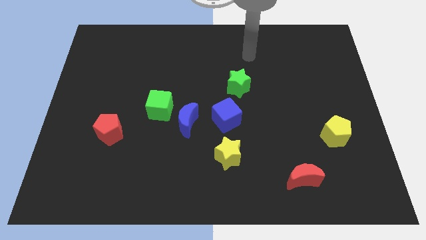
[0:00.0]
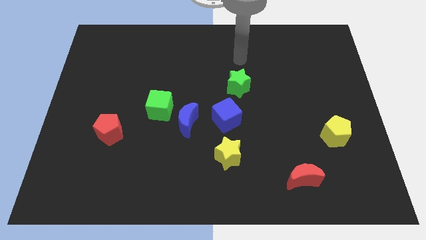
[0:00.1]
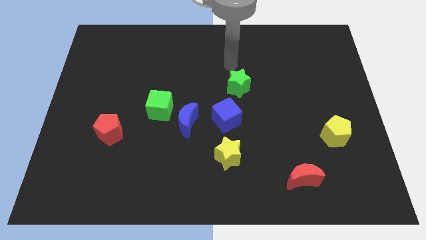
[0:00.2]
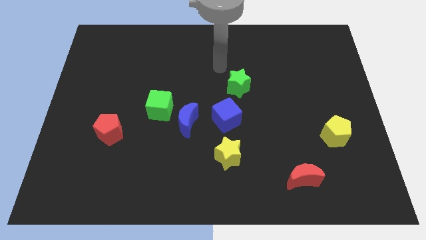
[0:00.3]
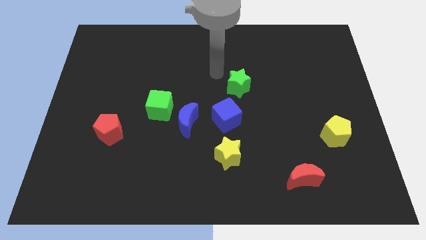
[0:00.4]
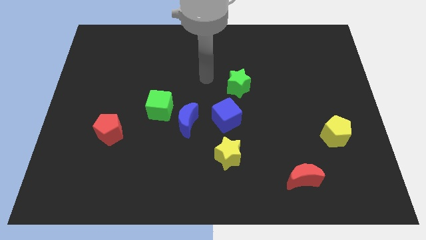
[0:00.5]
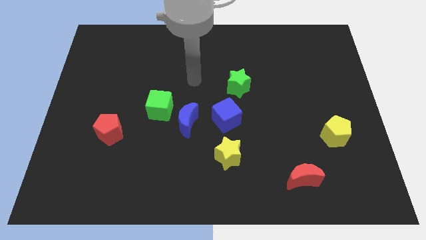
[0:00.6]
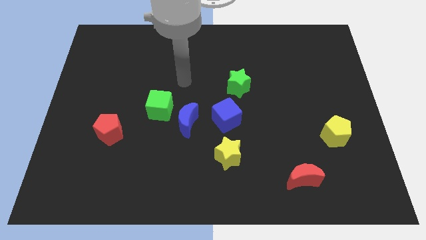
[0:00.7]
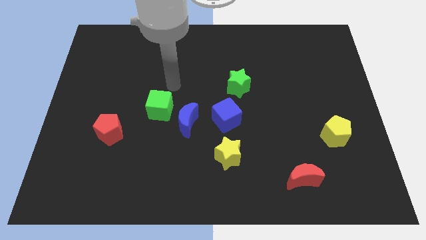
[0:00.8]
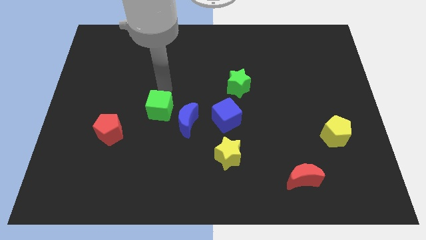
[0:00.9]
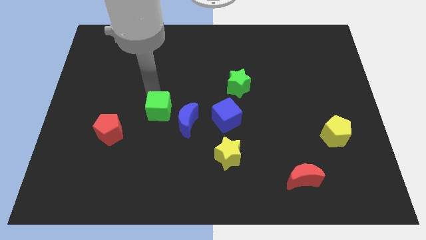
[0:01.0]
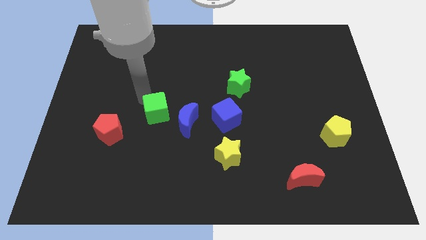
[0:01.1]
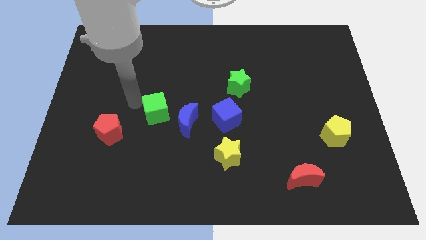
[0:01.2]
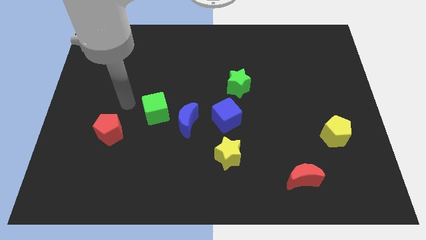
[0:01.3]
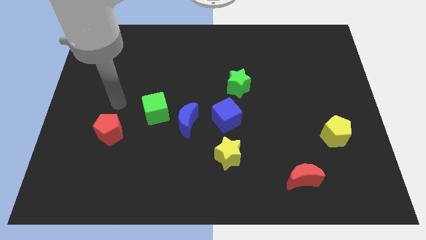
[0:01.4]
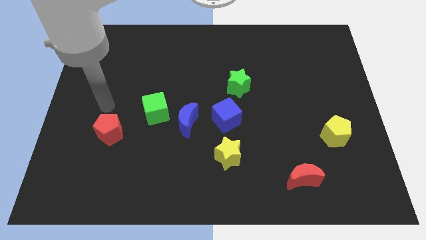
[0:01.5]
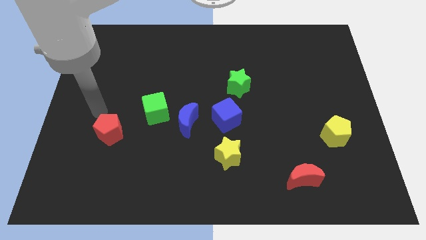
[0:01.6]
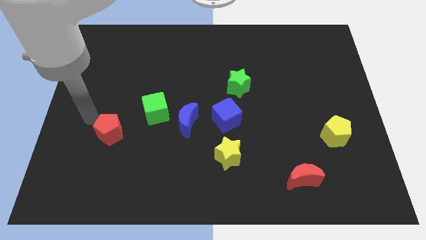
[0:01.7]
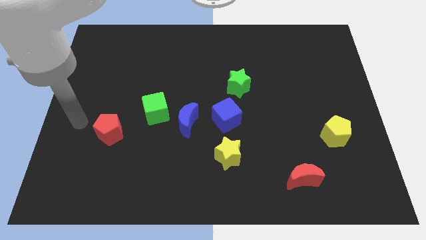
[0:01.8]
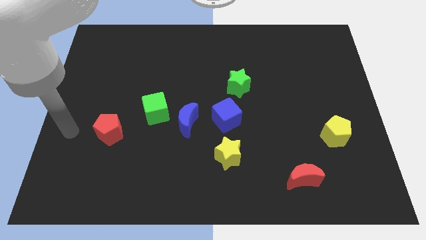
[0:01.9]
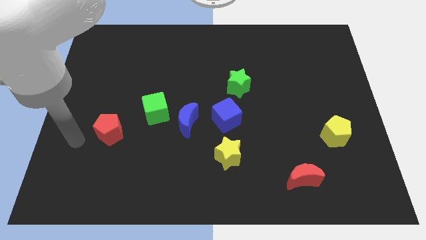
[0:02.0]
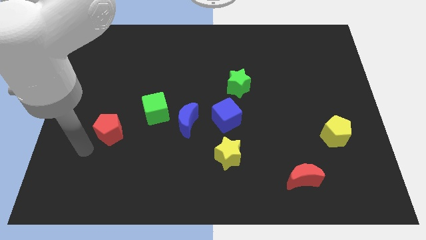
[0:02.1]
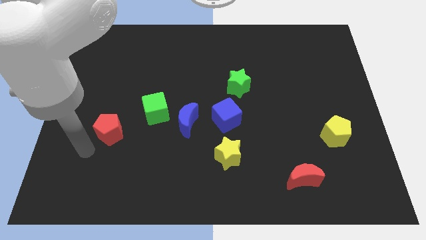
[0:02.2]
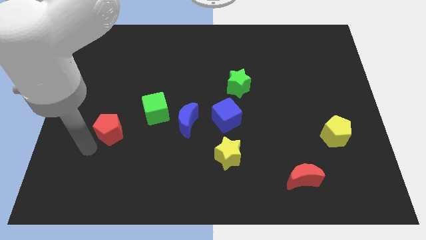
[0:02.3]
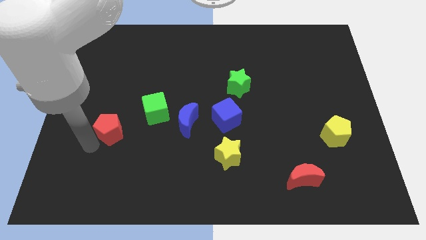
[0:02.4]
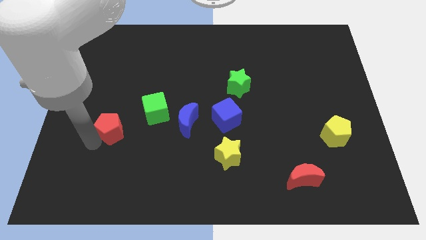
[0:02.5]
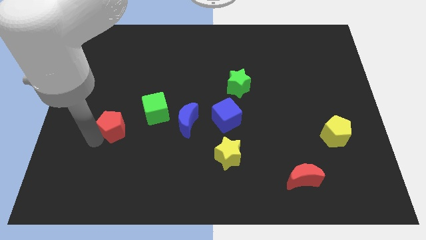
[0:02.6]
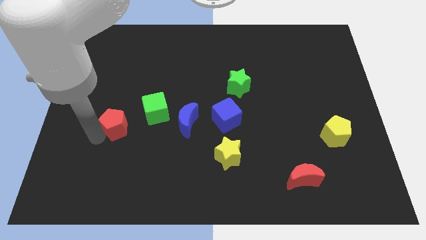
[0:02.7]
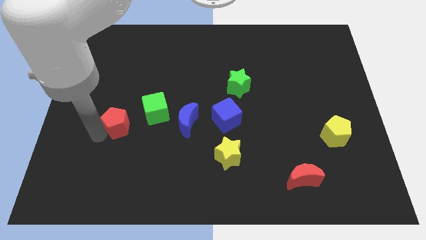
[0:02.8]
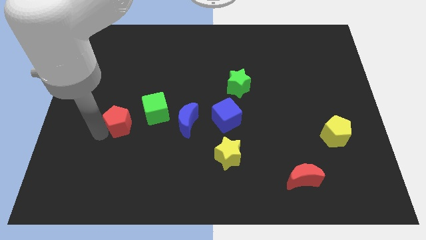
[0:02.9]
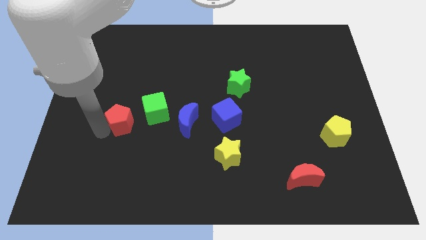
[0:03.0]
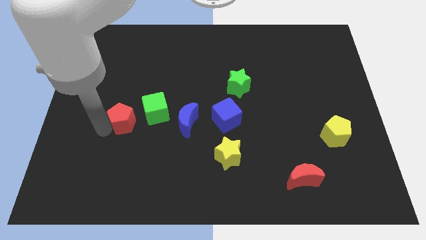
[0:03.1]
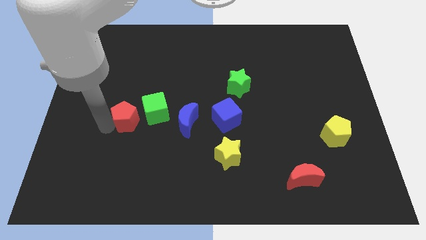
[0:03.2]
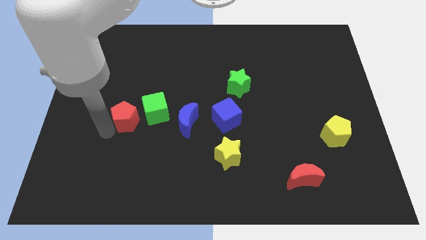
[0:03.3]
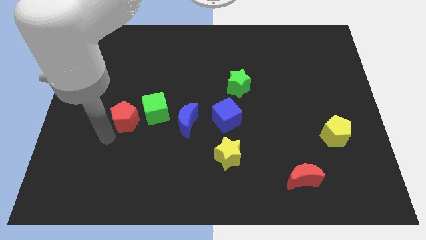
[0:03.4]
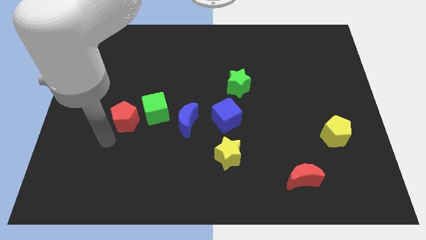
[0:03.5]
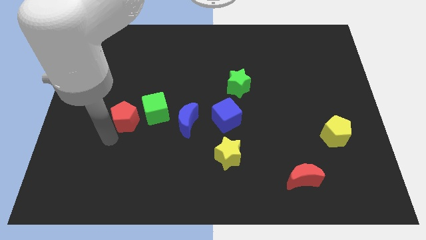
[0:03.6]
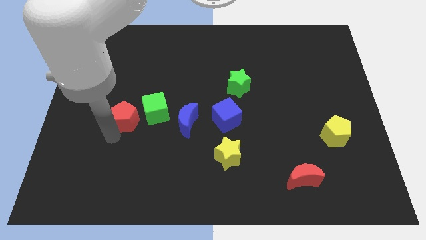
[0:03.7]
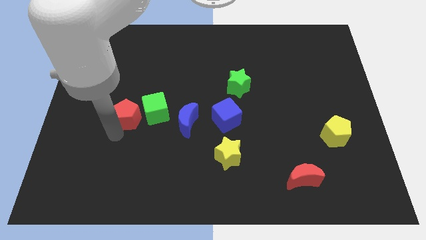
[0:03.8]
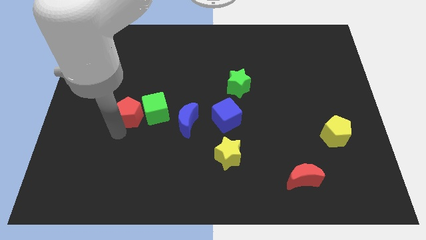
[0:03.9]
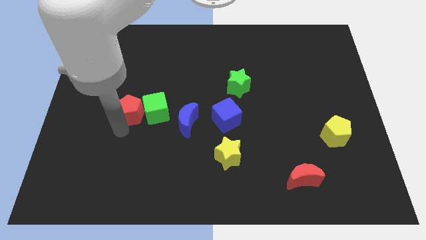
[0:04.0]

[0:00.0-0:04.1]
push the red pentagon up and to the right diagonally slightly

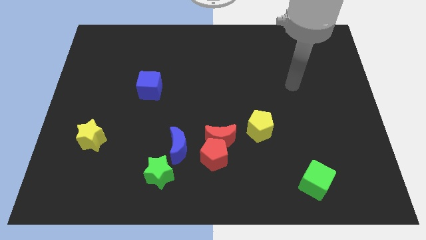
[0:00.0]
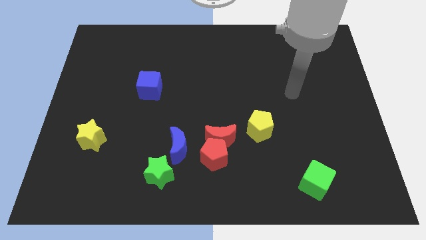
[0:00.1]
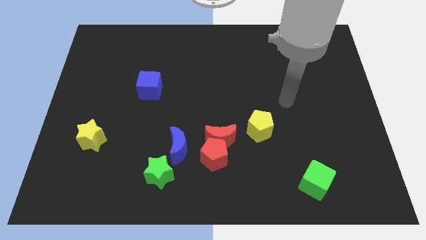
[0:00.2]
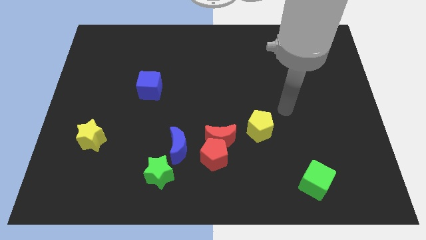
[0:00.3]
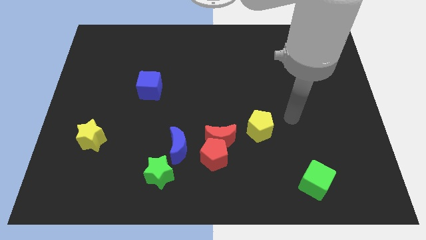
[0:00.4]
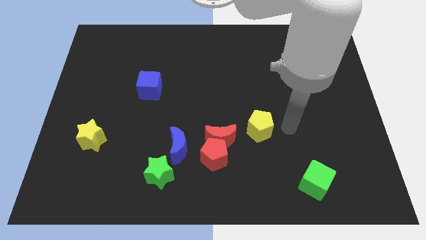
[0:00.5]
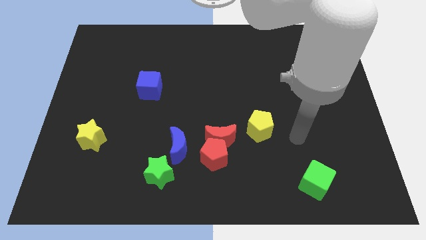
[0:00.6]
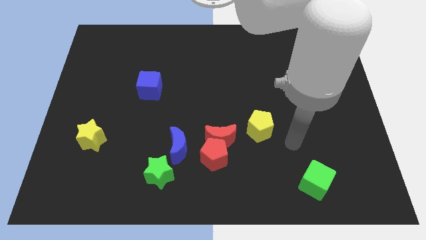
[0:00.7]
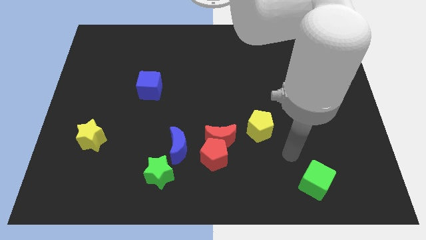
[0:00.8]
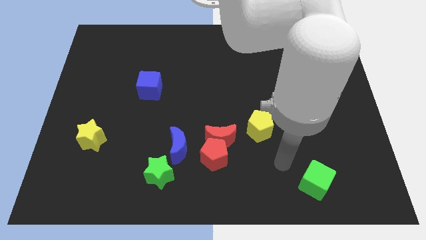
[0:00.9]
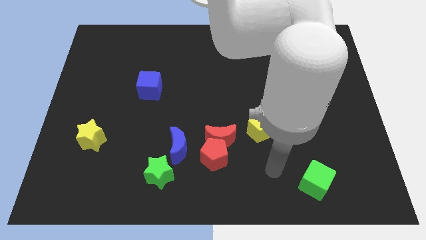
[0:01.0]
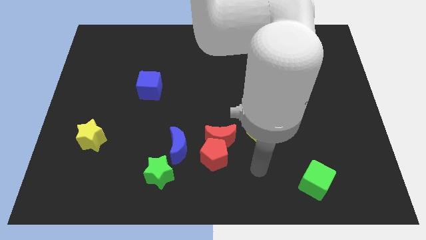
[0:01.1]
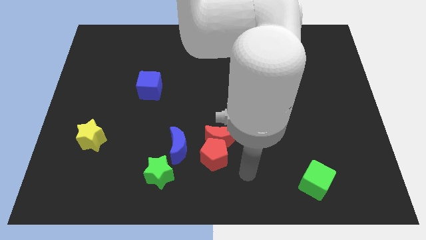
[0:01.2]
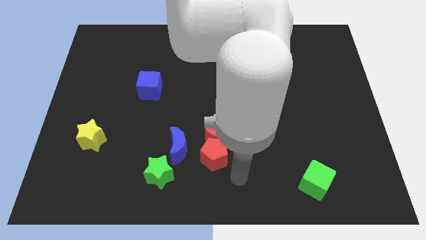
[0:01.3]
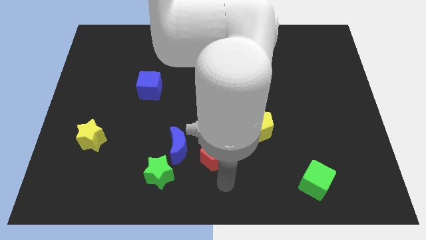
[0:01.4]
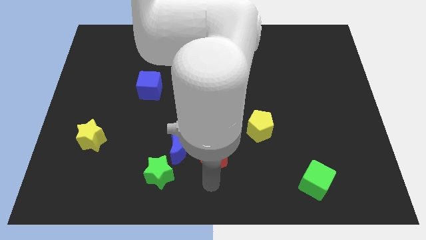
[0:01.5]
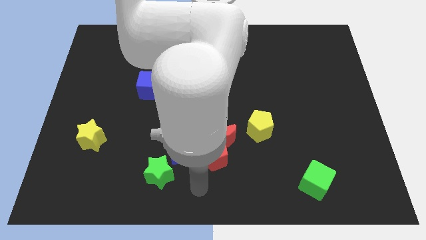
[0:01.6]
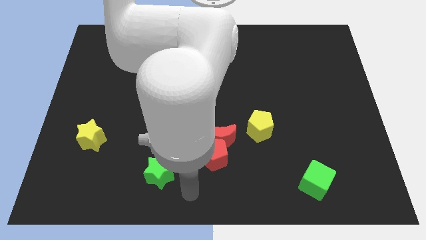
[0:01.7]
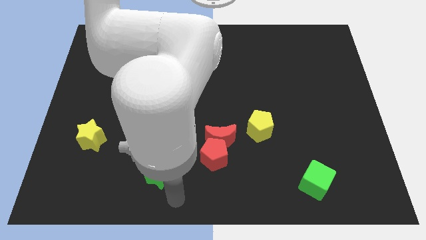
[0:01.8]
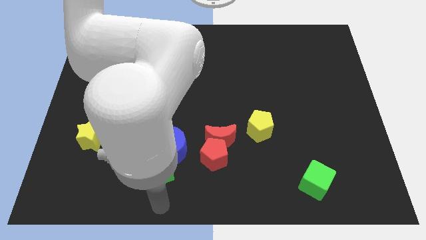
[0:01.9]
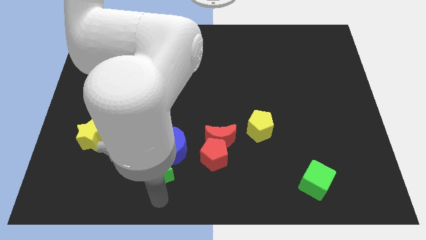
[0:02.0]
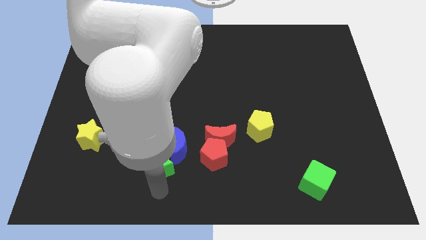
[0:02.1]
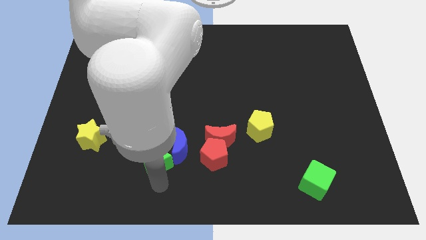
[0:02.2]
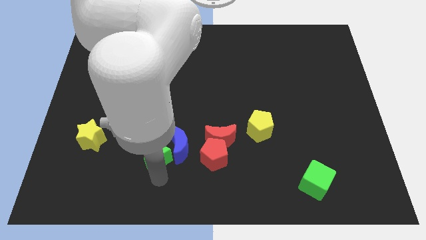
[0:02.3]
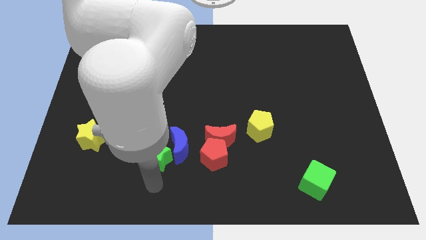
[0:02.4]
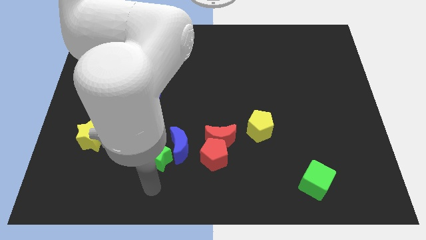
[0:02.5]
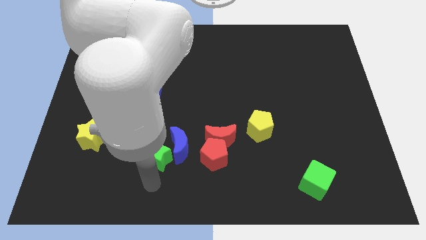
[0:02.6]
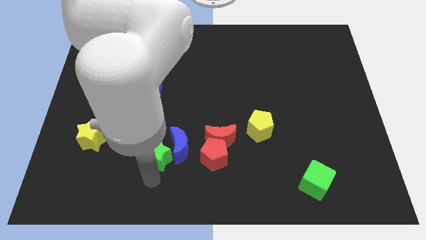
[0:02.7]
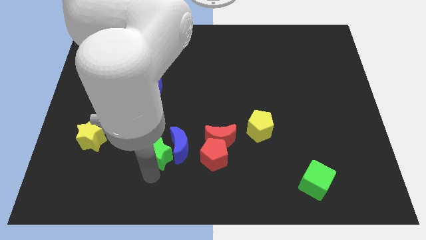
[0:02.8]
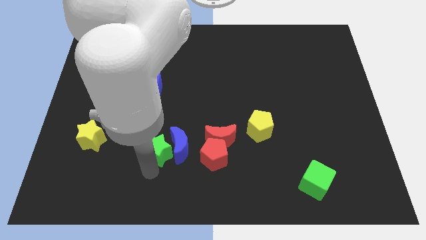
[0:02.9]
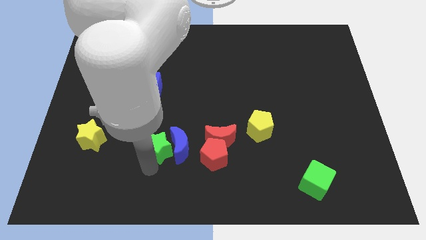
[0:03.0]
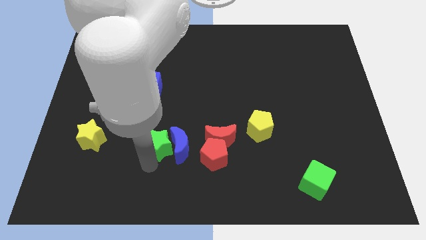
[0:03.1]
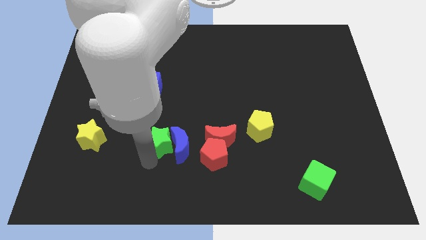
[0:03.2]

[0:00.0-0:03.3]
move the green star upwards a little bit

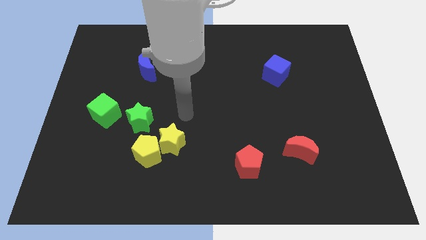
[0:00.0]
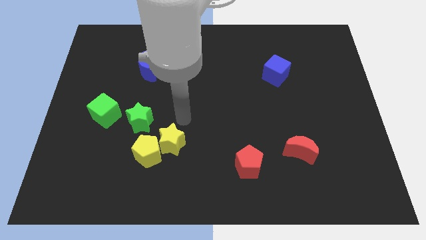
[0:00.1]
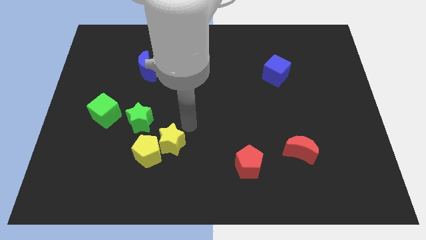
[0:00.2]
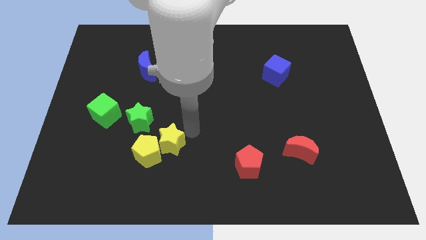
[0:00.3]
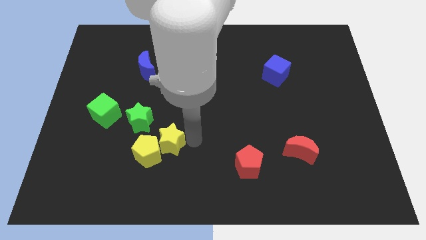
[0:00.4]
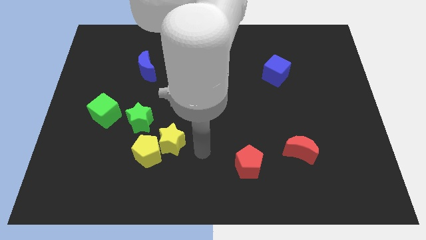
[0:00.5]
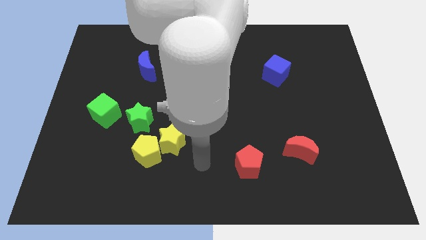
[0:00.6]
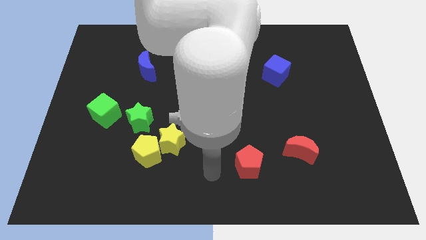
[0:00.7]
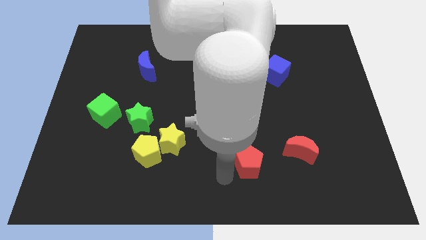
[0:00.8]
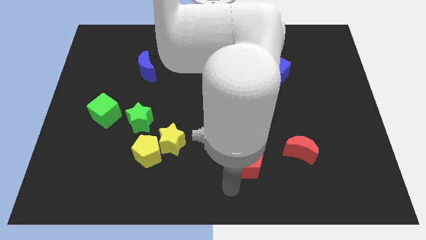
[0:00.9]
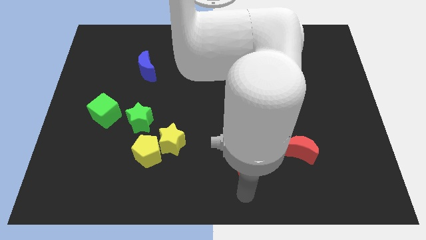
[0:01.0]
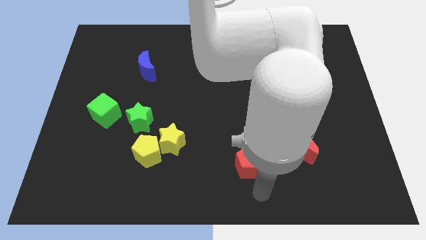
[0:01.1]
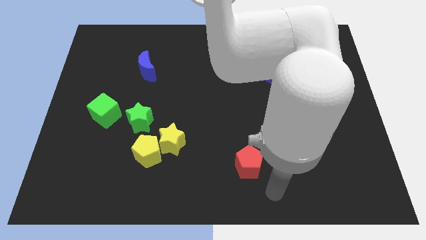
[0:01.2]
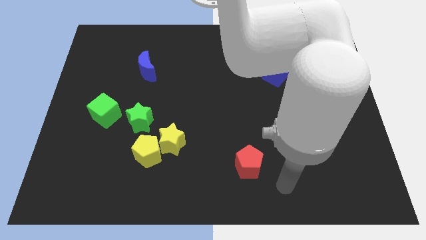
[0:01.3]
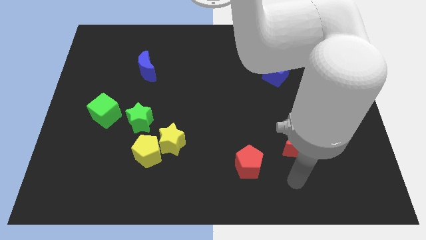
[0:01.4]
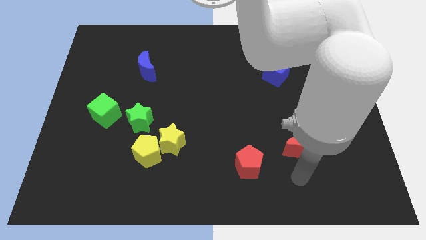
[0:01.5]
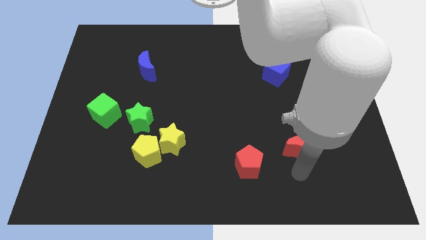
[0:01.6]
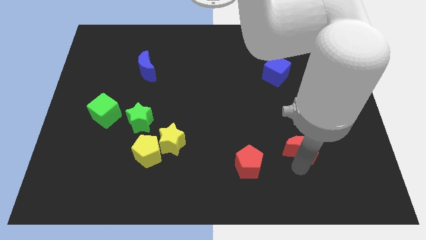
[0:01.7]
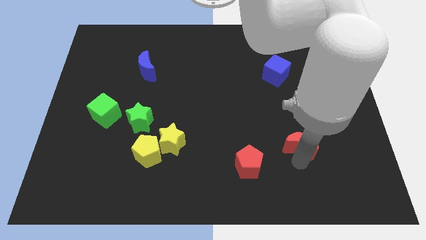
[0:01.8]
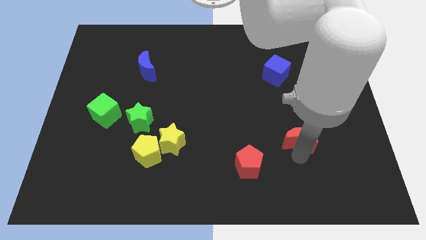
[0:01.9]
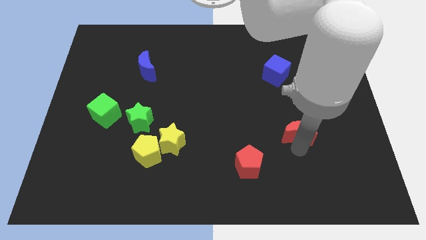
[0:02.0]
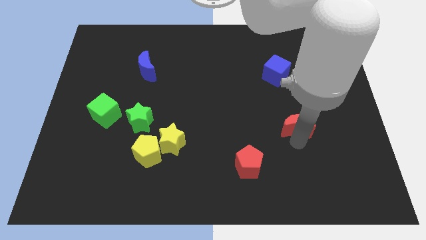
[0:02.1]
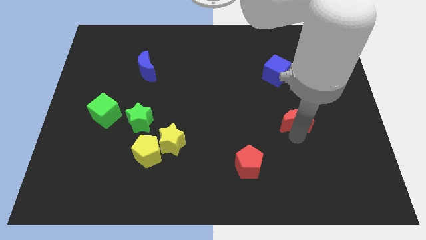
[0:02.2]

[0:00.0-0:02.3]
slide the red moon up a little
